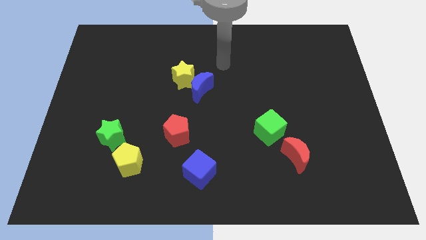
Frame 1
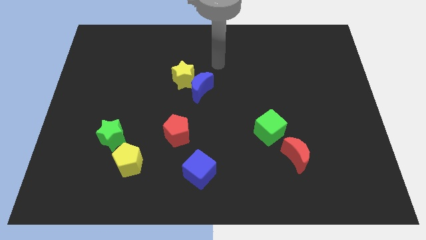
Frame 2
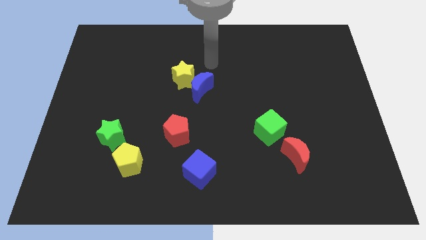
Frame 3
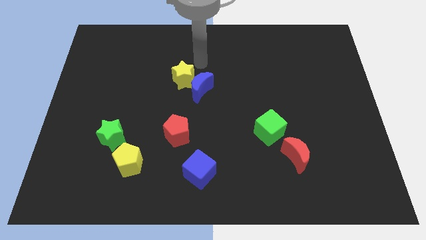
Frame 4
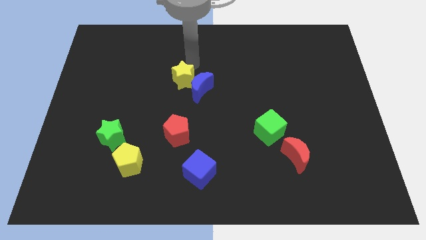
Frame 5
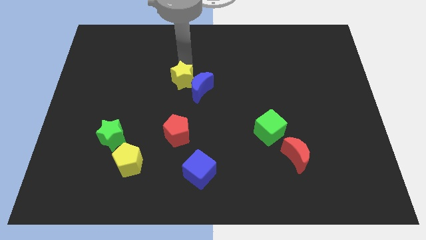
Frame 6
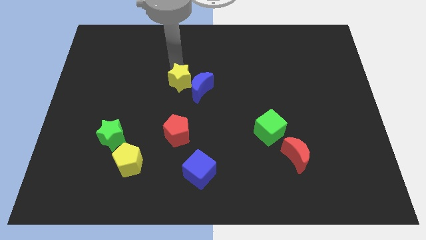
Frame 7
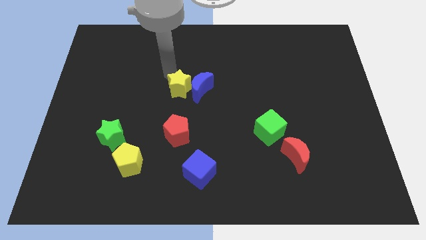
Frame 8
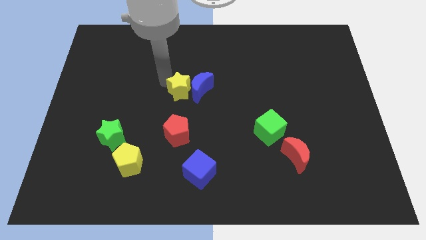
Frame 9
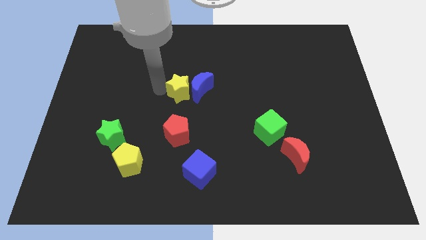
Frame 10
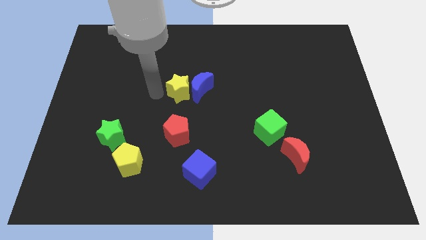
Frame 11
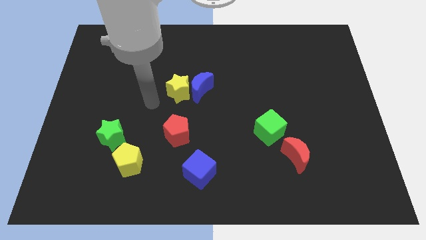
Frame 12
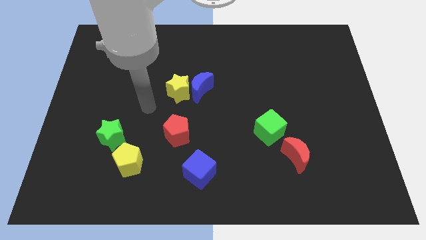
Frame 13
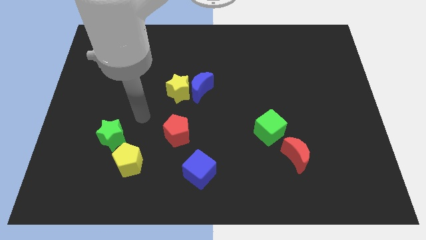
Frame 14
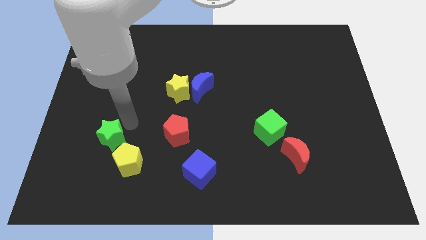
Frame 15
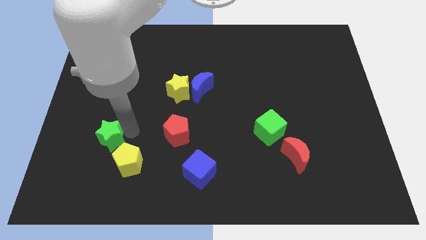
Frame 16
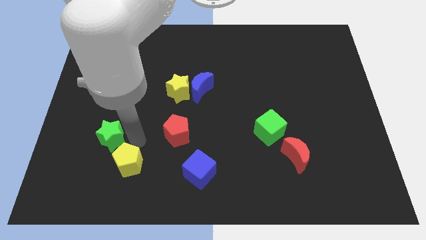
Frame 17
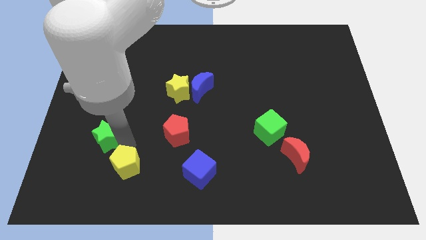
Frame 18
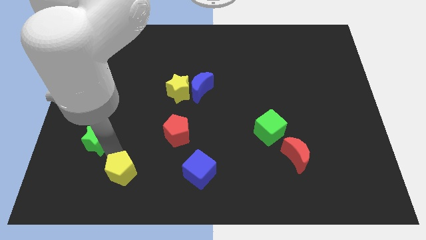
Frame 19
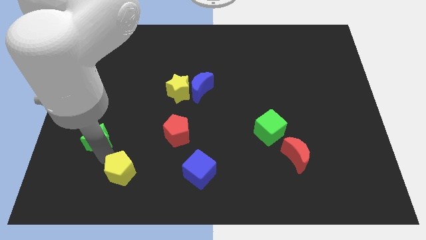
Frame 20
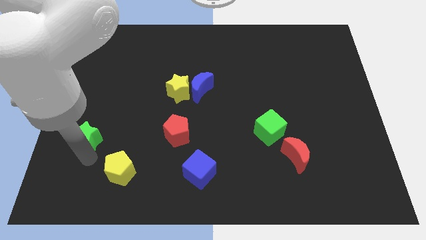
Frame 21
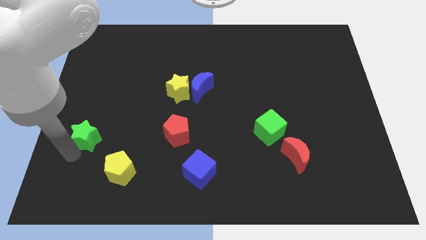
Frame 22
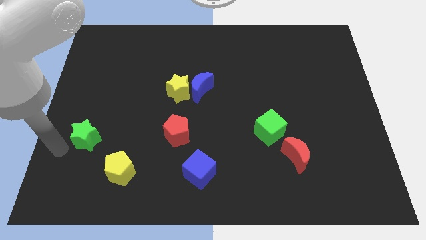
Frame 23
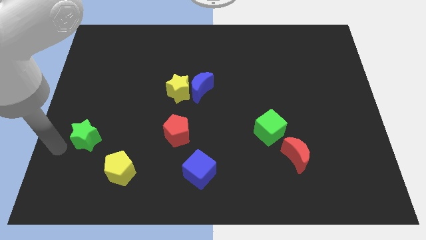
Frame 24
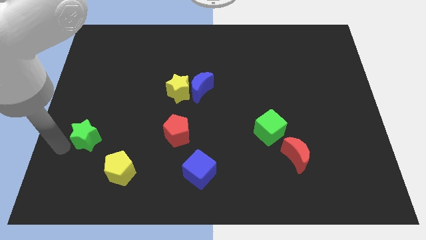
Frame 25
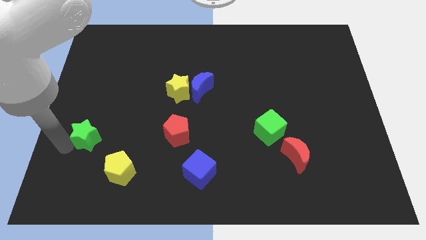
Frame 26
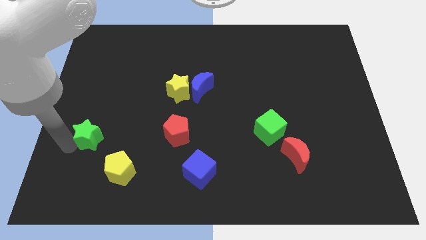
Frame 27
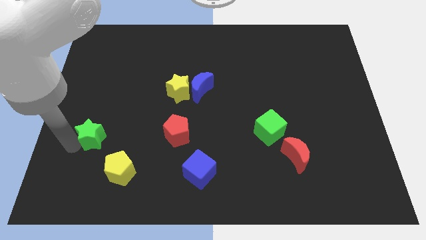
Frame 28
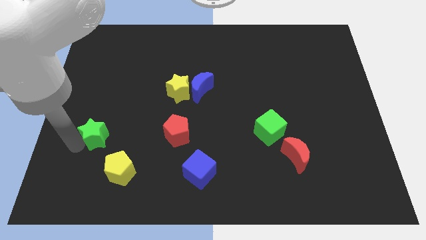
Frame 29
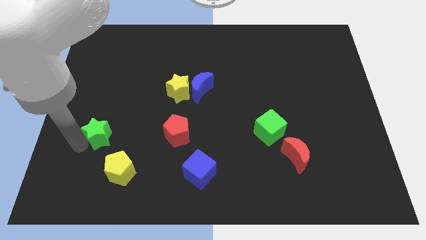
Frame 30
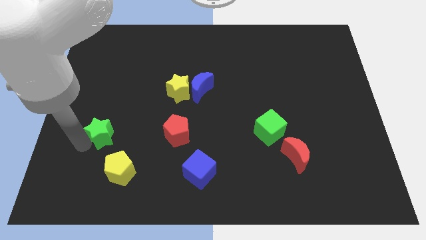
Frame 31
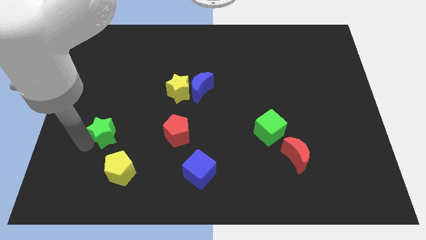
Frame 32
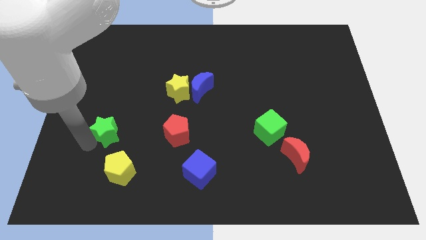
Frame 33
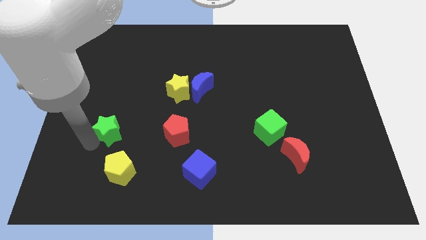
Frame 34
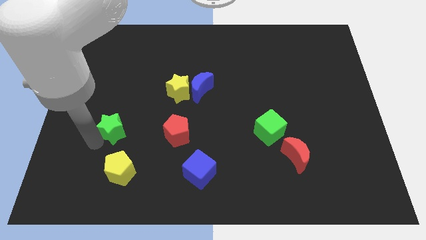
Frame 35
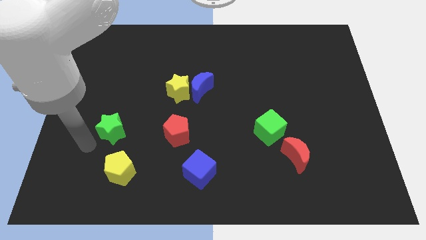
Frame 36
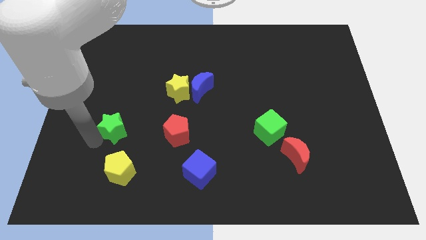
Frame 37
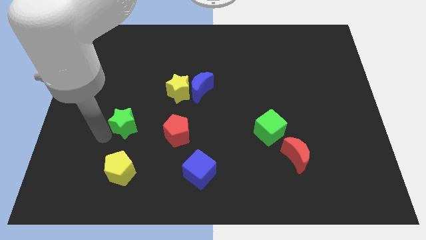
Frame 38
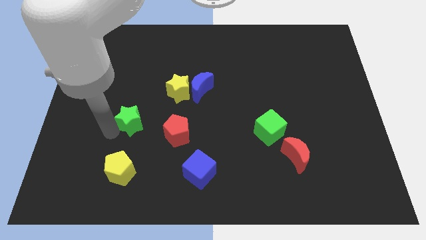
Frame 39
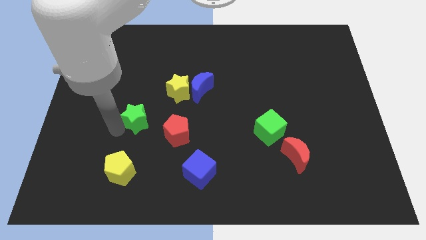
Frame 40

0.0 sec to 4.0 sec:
slide the green star up and then right a bit

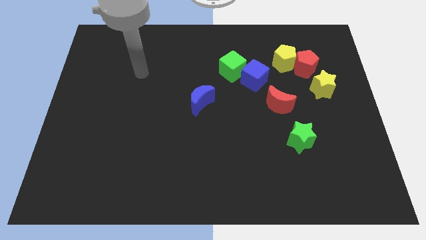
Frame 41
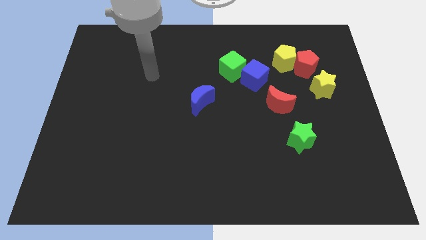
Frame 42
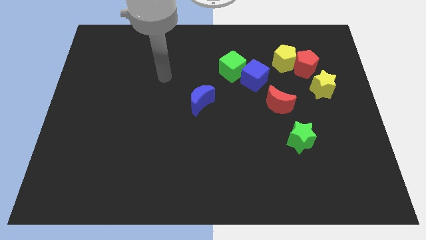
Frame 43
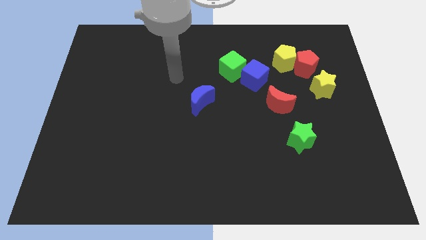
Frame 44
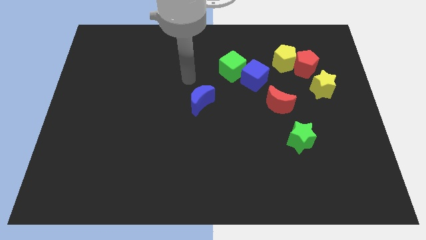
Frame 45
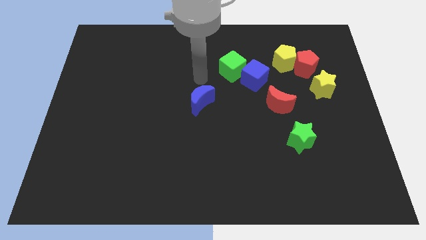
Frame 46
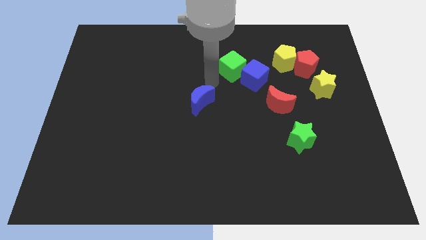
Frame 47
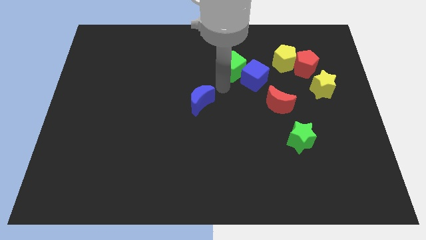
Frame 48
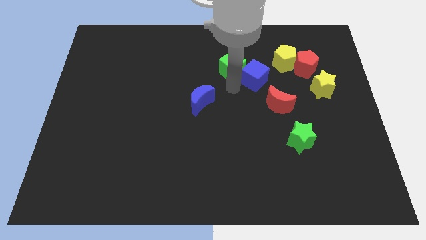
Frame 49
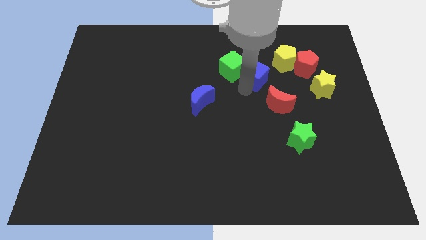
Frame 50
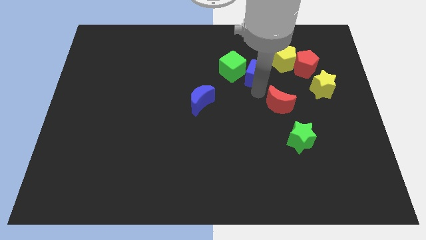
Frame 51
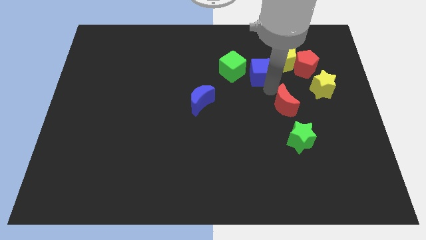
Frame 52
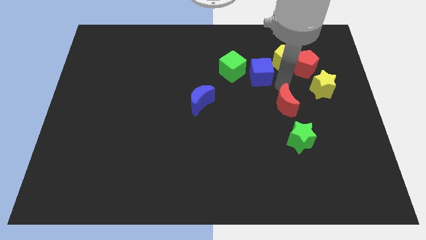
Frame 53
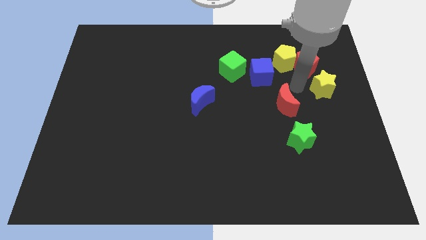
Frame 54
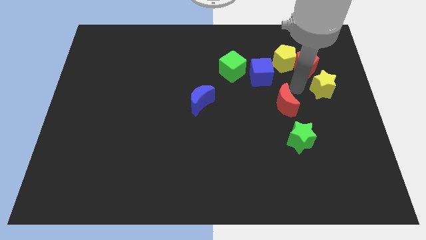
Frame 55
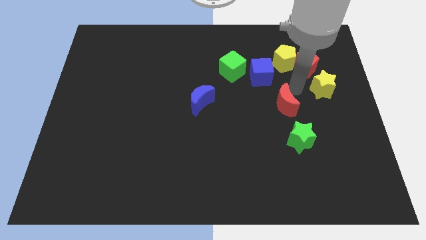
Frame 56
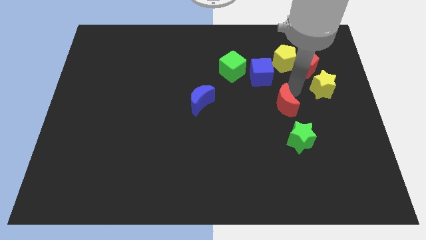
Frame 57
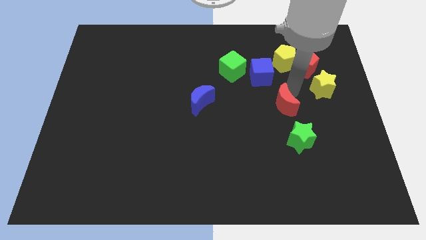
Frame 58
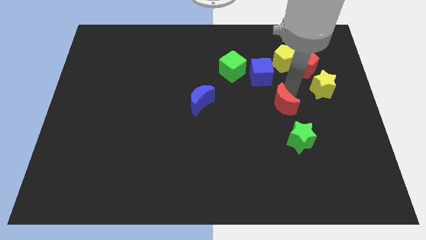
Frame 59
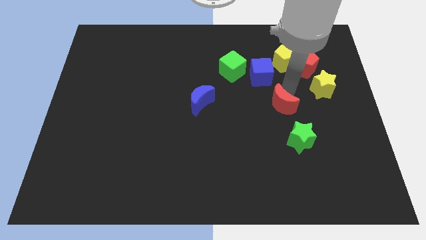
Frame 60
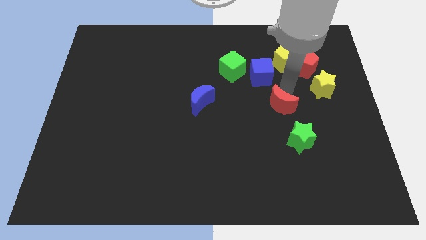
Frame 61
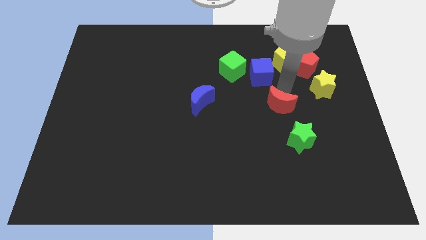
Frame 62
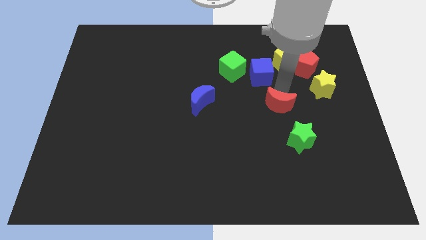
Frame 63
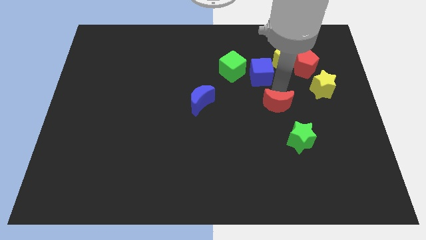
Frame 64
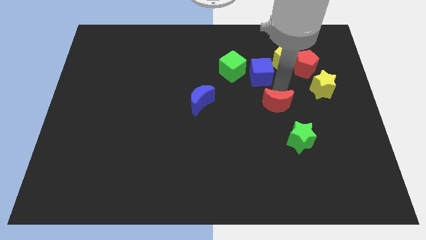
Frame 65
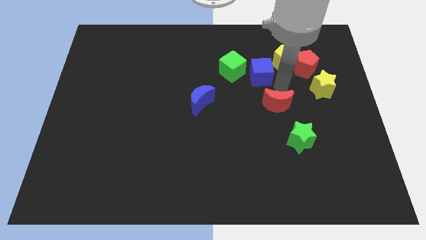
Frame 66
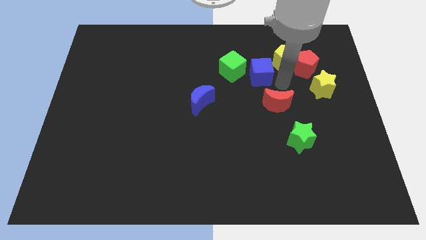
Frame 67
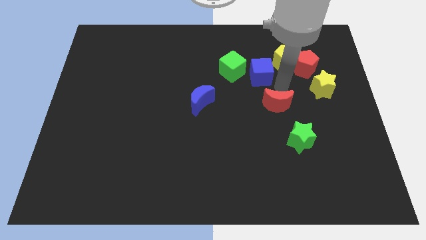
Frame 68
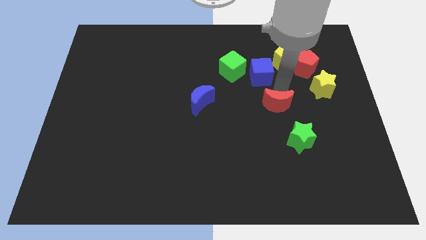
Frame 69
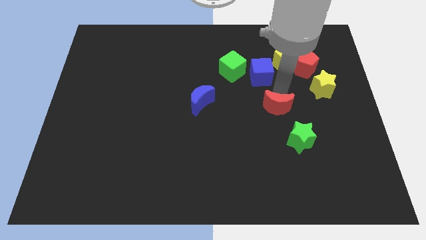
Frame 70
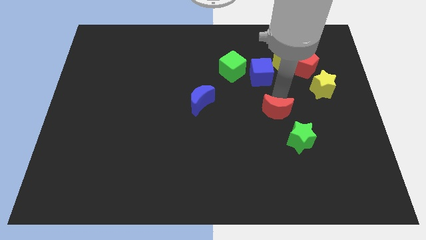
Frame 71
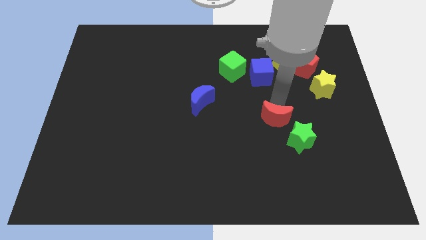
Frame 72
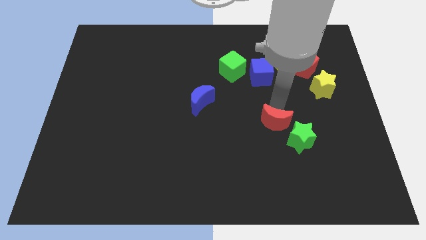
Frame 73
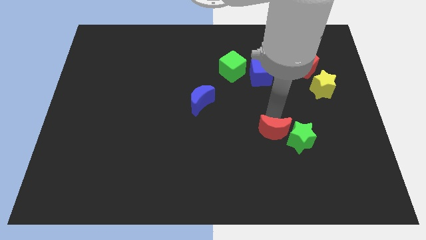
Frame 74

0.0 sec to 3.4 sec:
push the red moon down a little

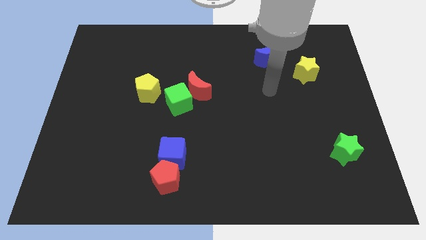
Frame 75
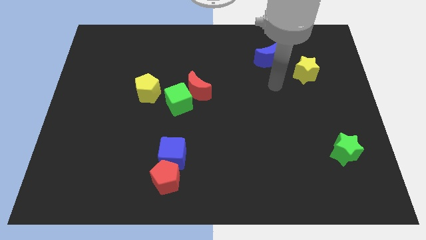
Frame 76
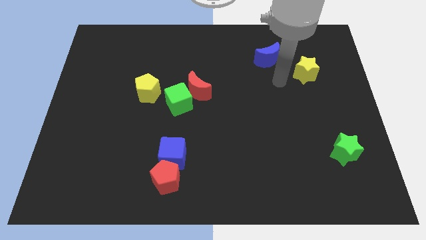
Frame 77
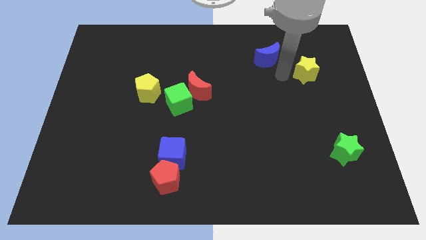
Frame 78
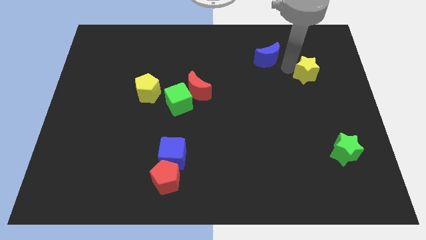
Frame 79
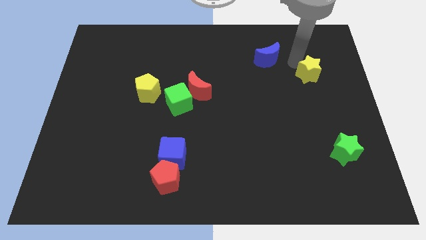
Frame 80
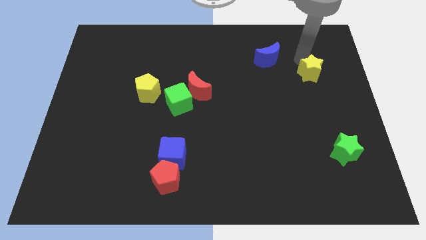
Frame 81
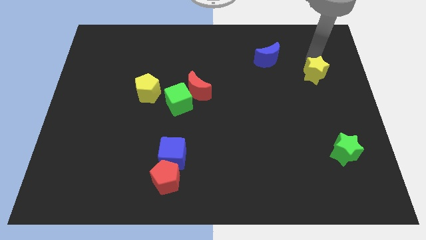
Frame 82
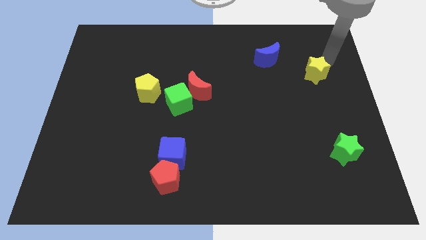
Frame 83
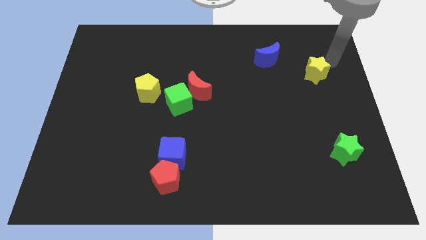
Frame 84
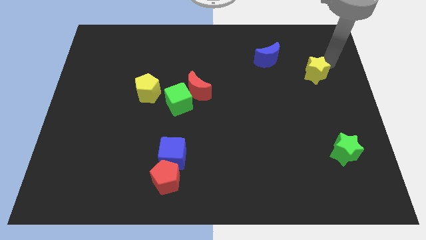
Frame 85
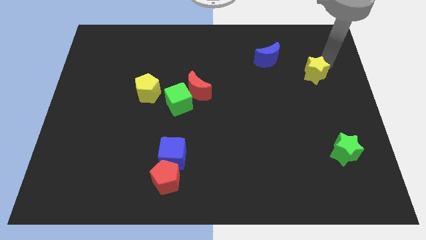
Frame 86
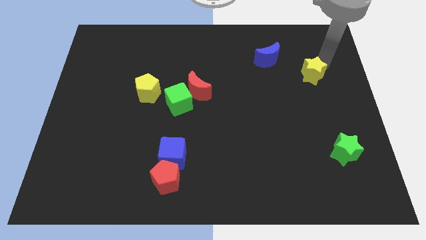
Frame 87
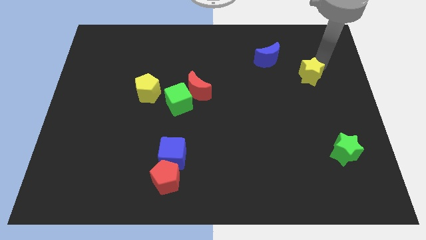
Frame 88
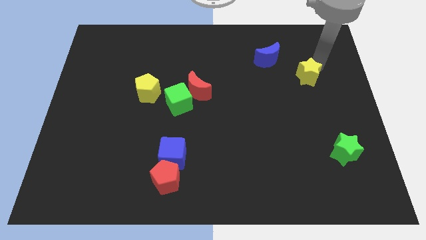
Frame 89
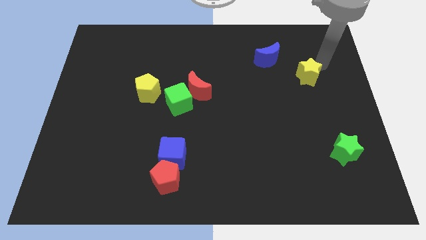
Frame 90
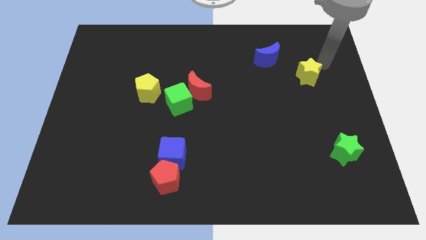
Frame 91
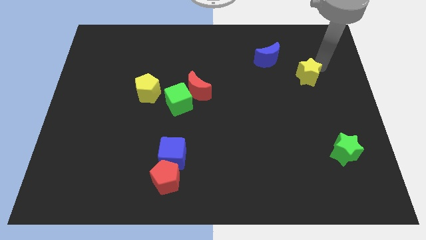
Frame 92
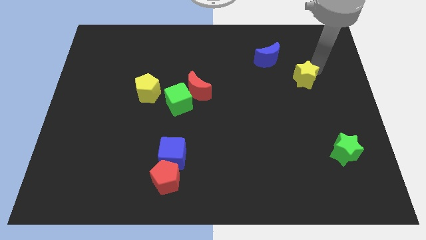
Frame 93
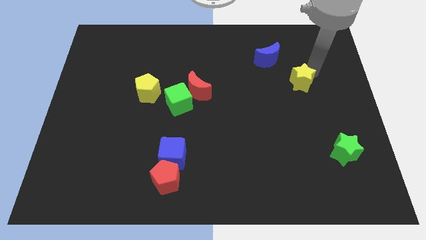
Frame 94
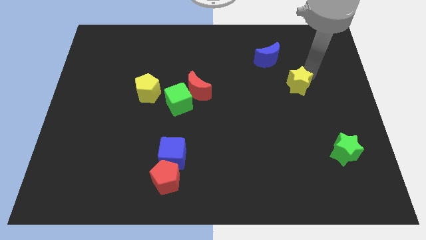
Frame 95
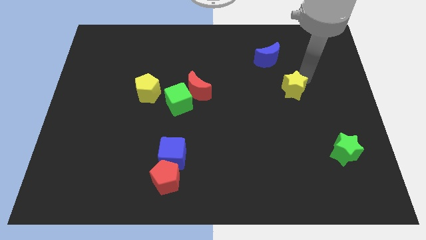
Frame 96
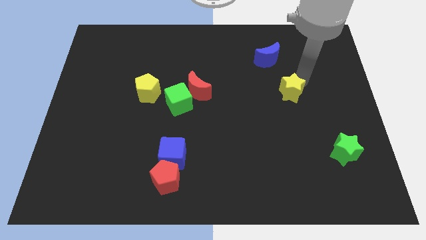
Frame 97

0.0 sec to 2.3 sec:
move the yellow star a little bit downwards and to the left diagonally
